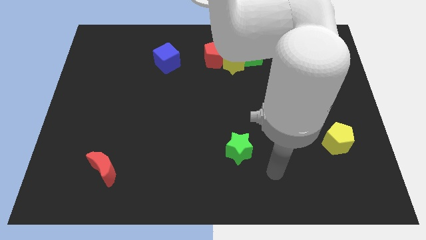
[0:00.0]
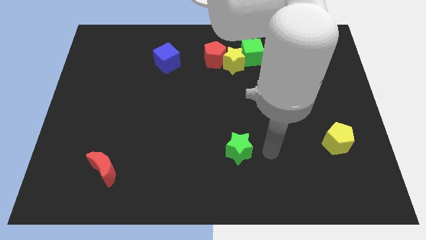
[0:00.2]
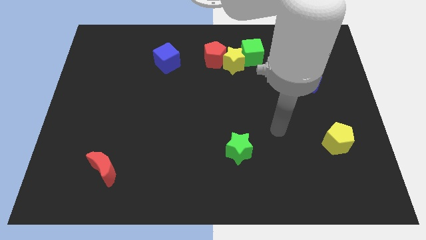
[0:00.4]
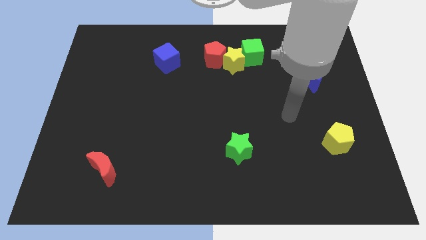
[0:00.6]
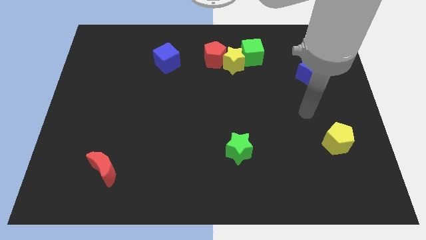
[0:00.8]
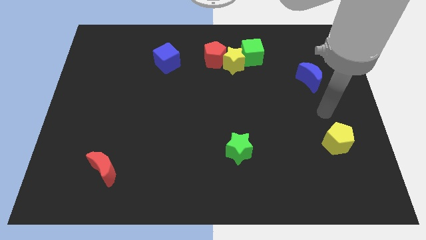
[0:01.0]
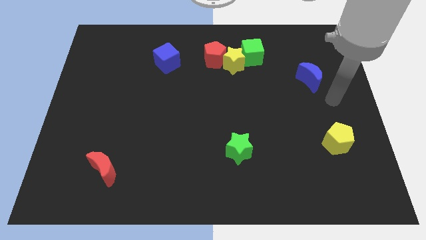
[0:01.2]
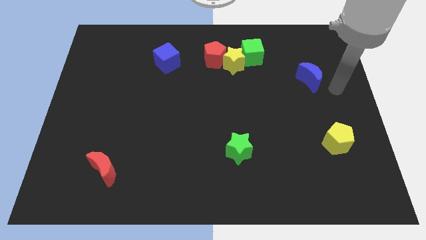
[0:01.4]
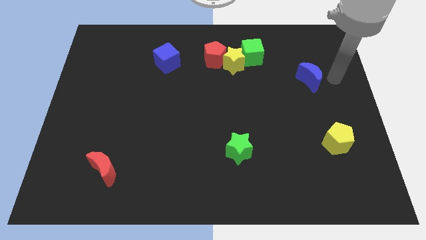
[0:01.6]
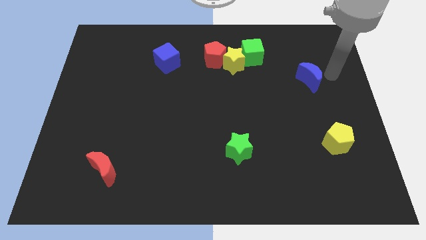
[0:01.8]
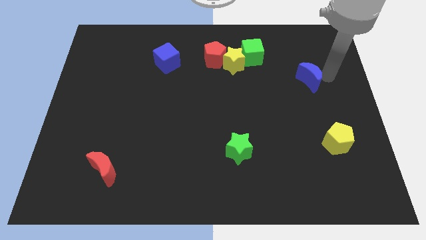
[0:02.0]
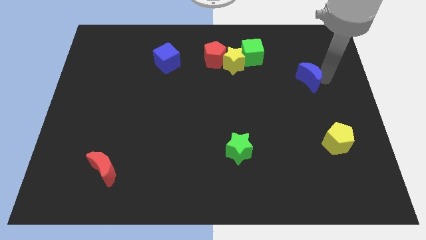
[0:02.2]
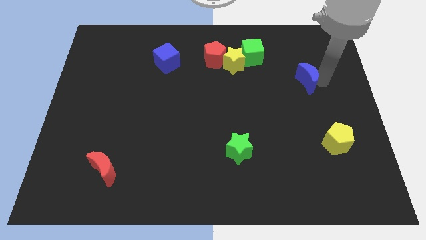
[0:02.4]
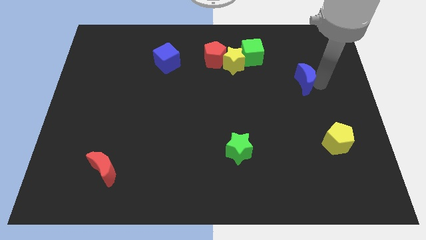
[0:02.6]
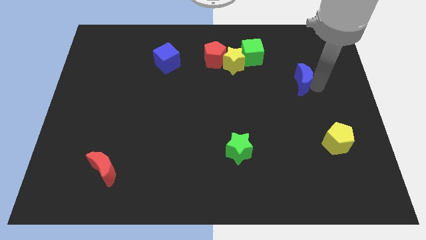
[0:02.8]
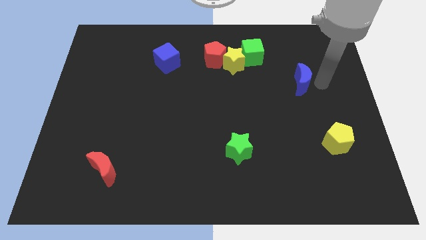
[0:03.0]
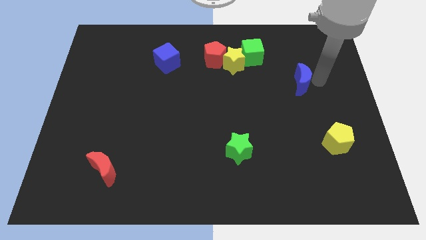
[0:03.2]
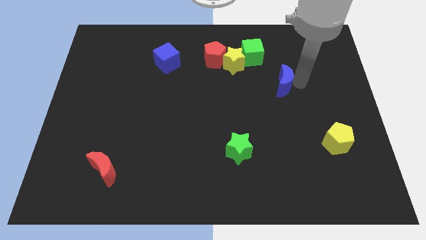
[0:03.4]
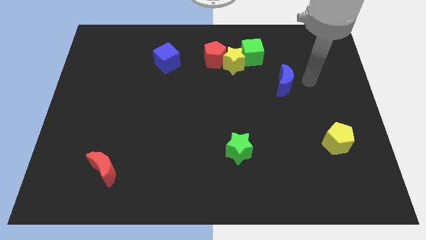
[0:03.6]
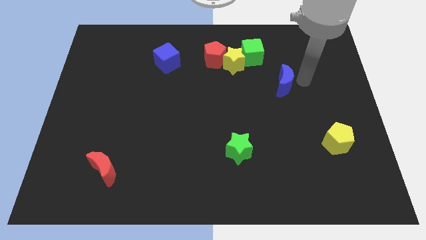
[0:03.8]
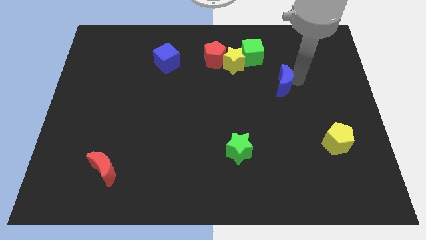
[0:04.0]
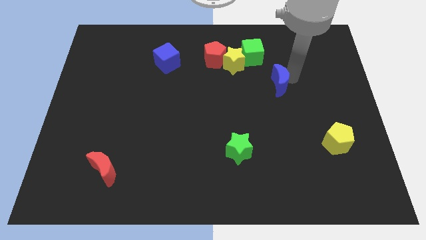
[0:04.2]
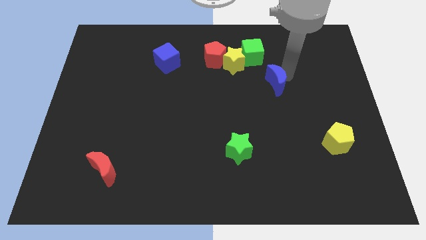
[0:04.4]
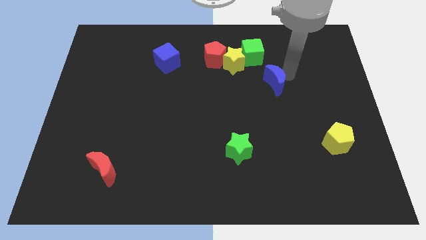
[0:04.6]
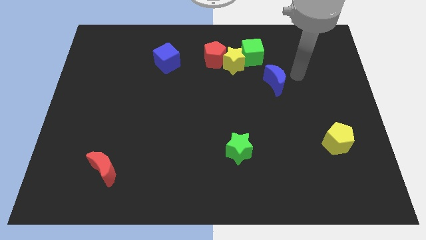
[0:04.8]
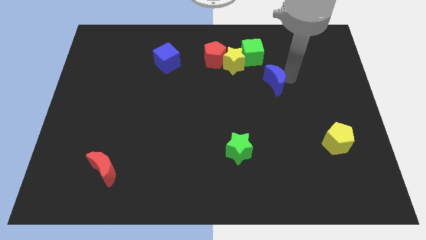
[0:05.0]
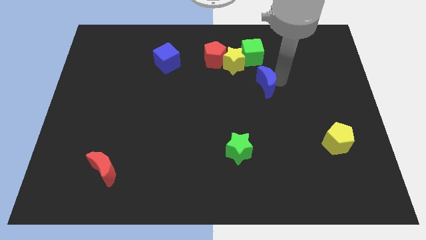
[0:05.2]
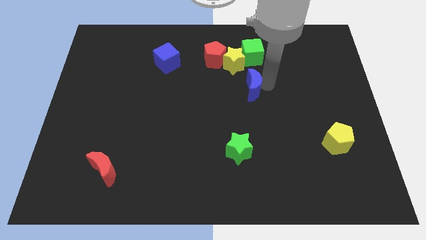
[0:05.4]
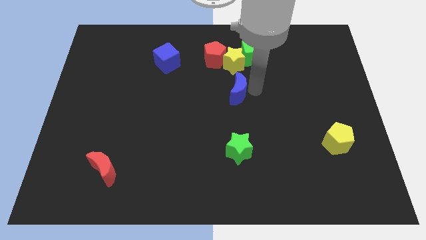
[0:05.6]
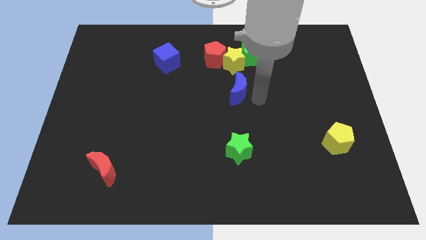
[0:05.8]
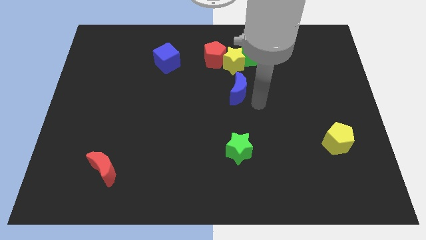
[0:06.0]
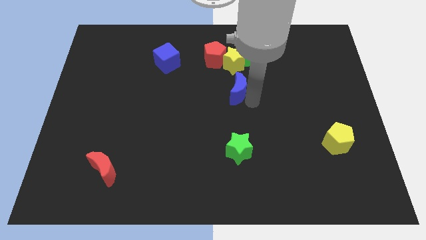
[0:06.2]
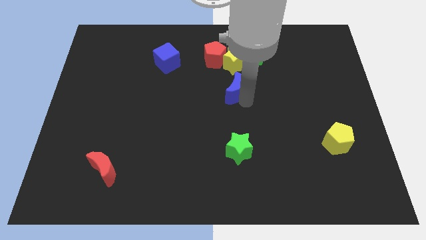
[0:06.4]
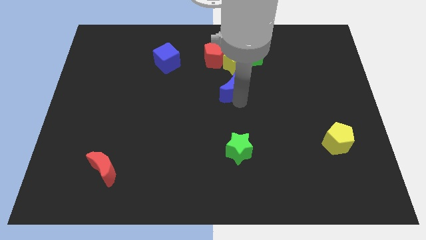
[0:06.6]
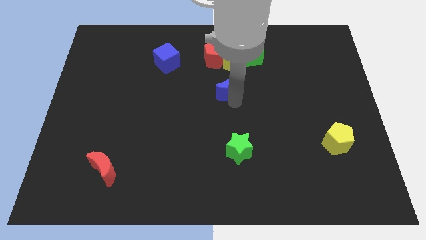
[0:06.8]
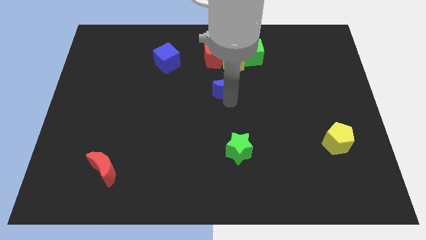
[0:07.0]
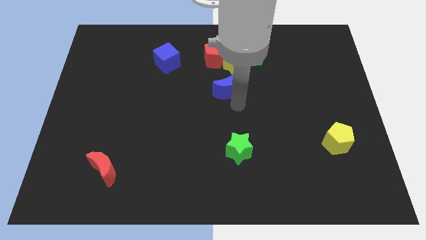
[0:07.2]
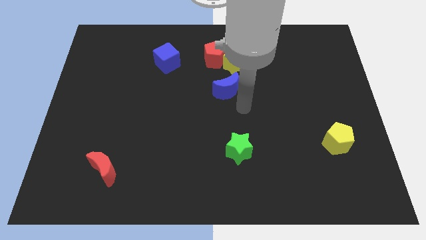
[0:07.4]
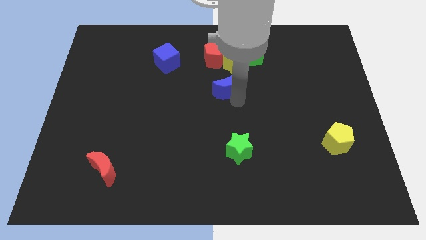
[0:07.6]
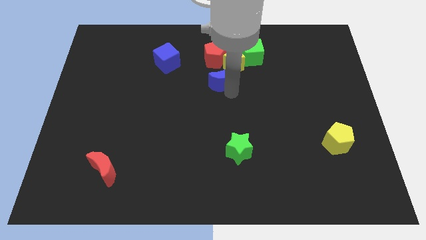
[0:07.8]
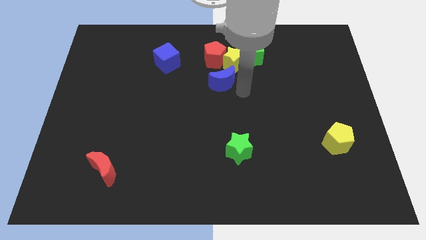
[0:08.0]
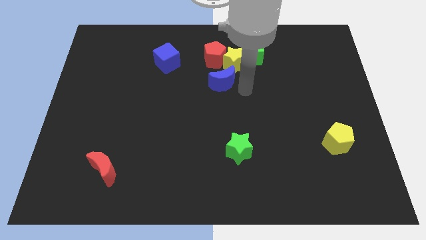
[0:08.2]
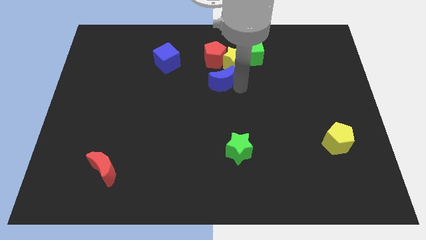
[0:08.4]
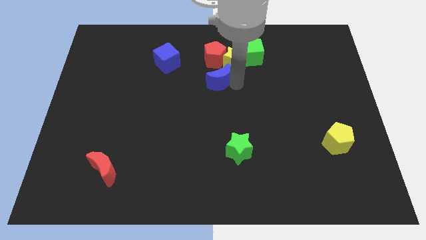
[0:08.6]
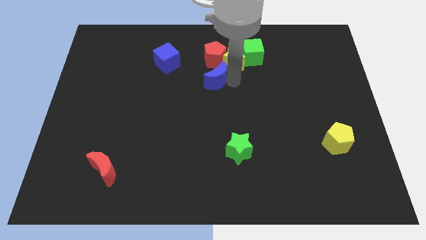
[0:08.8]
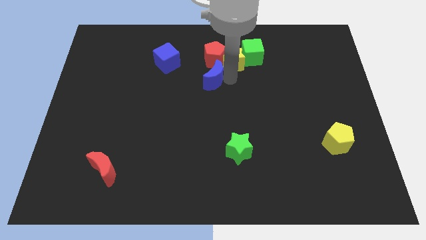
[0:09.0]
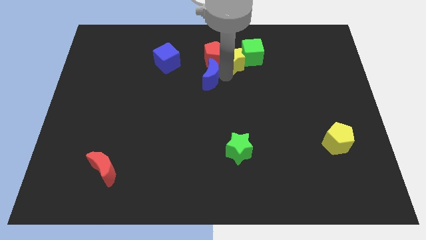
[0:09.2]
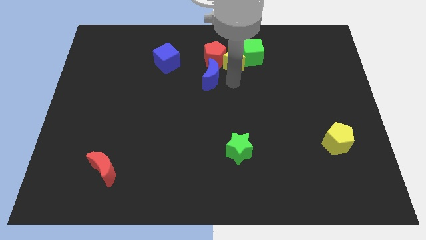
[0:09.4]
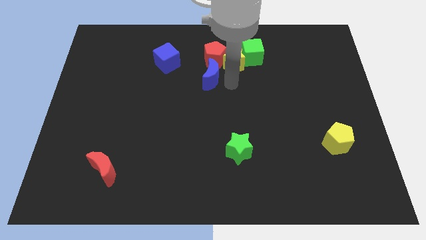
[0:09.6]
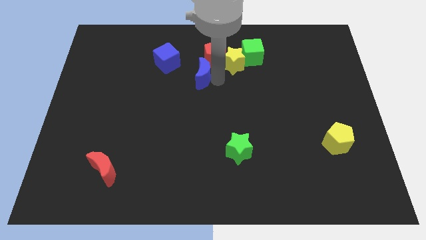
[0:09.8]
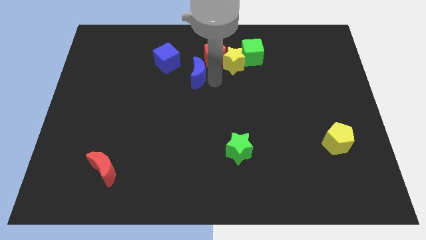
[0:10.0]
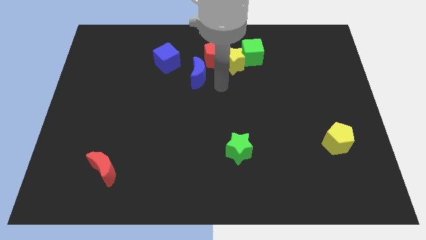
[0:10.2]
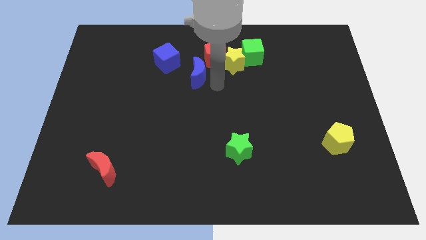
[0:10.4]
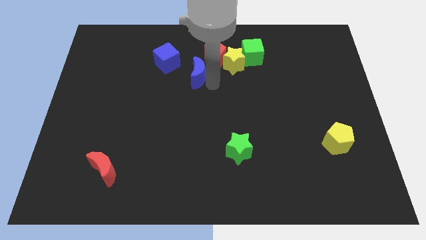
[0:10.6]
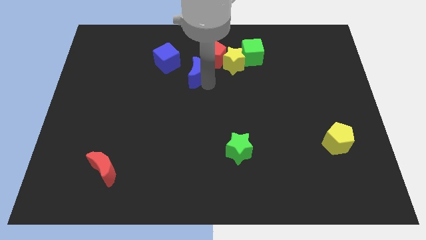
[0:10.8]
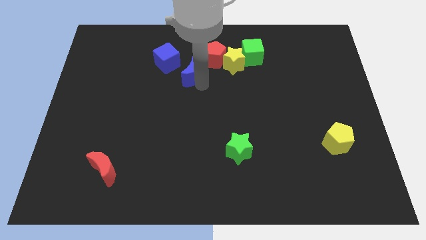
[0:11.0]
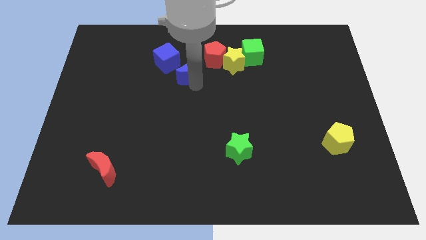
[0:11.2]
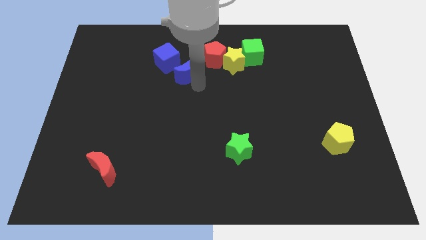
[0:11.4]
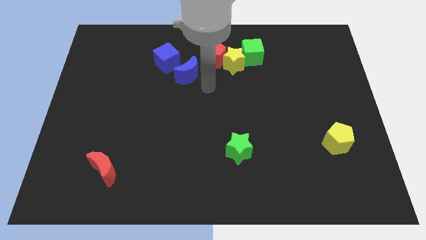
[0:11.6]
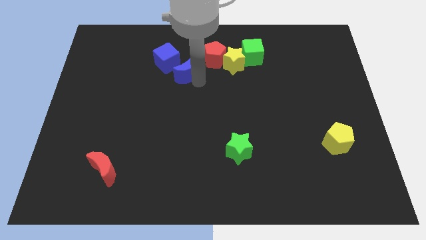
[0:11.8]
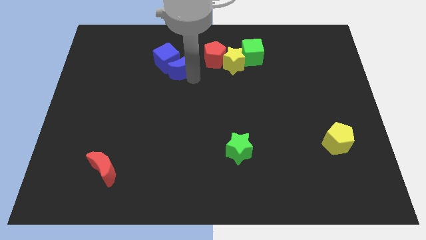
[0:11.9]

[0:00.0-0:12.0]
put the blue moon close to the blue cube

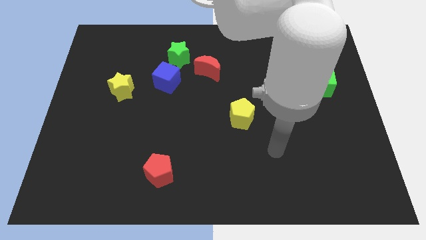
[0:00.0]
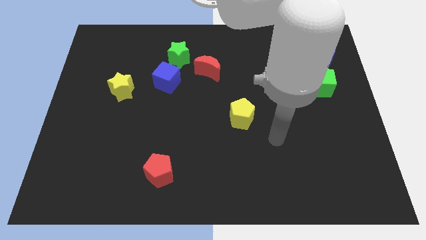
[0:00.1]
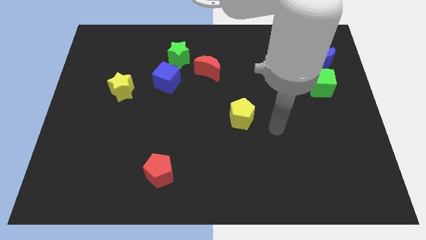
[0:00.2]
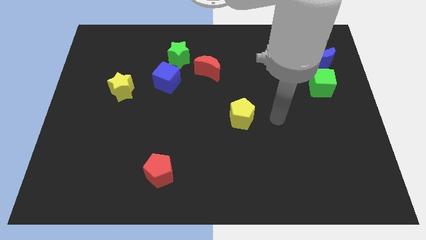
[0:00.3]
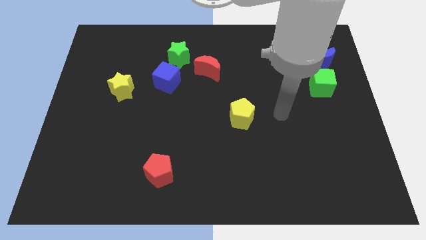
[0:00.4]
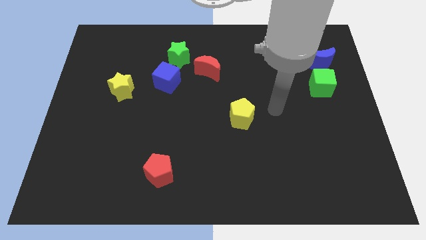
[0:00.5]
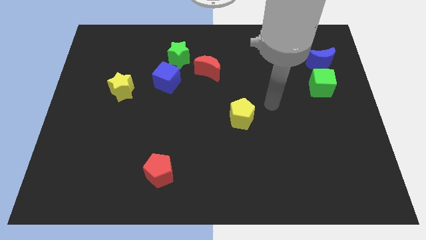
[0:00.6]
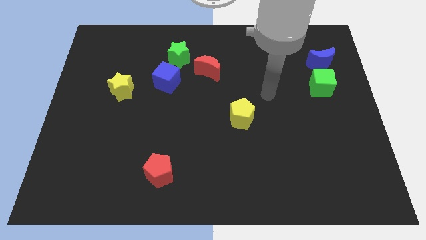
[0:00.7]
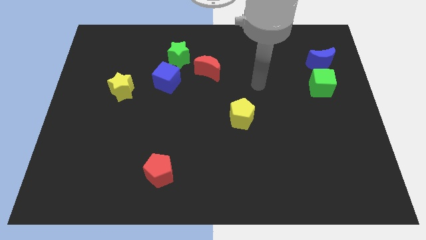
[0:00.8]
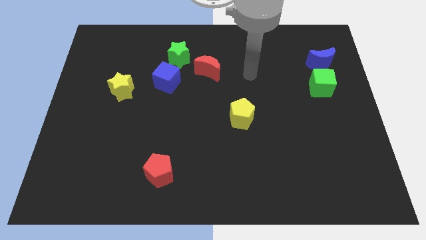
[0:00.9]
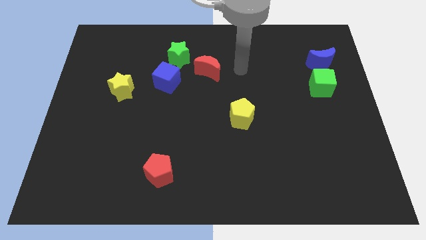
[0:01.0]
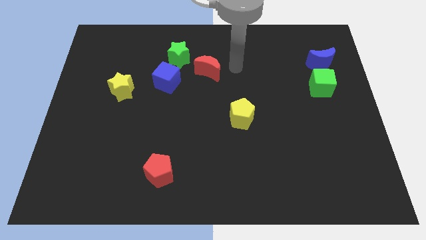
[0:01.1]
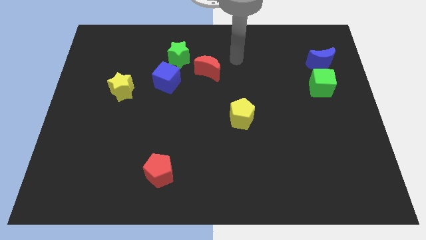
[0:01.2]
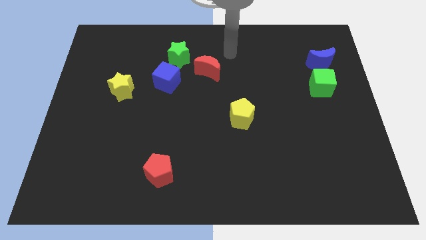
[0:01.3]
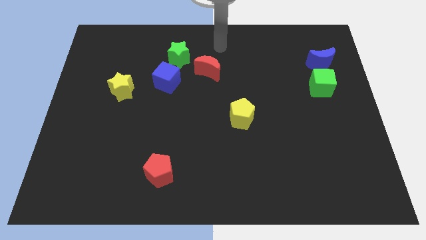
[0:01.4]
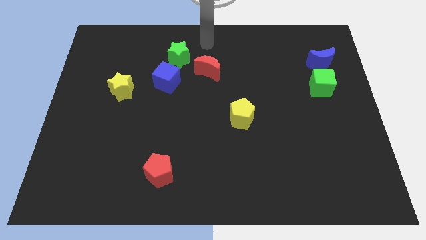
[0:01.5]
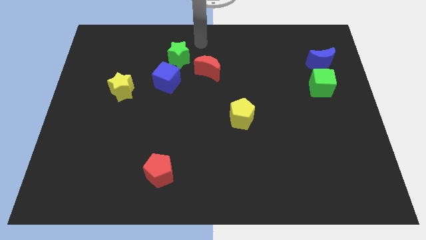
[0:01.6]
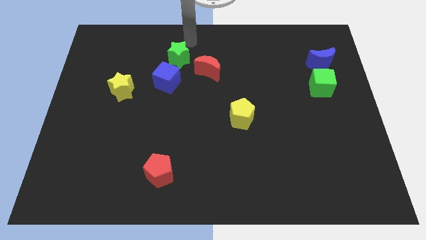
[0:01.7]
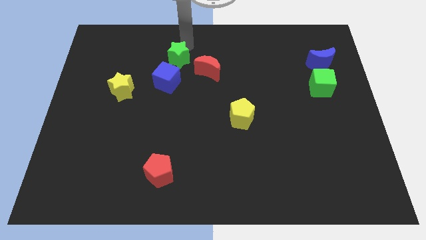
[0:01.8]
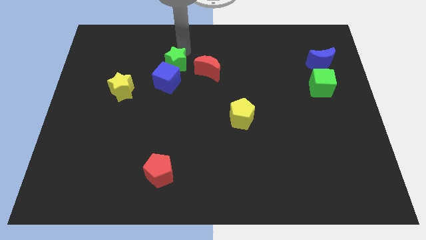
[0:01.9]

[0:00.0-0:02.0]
put the green star to the blue cube

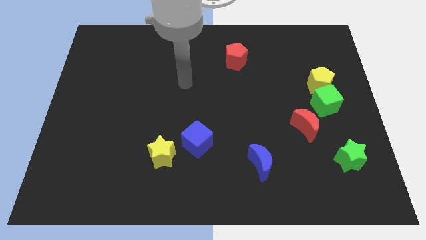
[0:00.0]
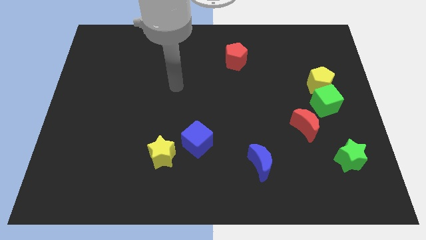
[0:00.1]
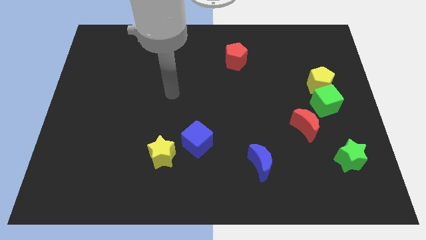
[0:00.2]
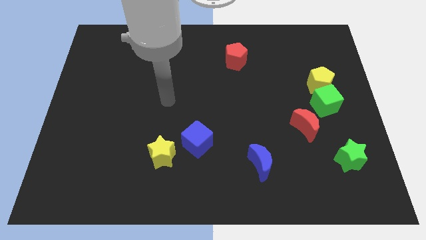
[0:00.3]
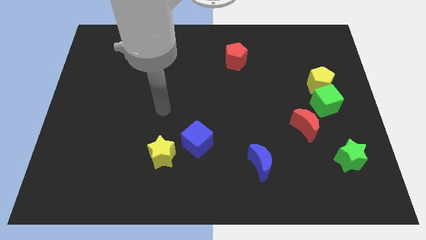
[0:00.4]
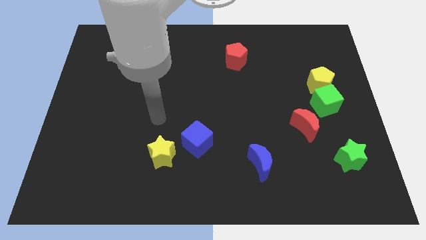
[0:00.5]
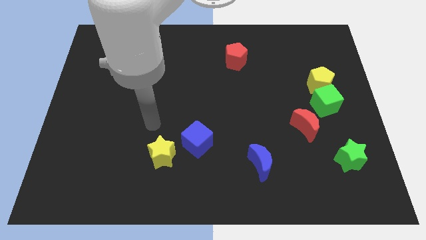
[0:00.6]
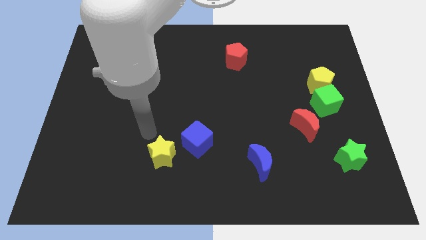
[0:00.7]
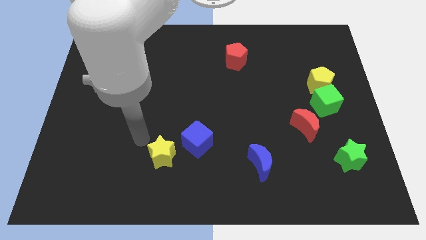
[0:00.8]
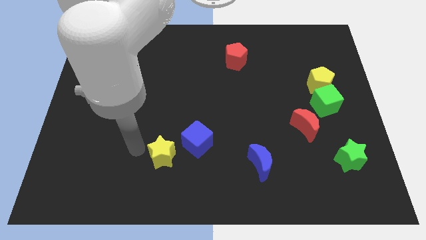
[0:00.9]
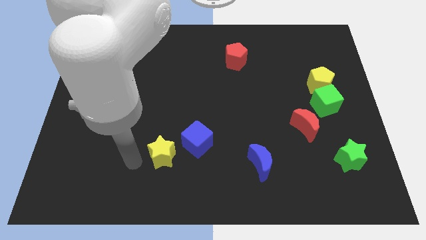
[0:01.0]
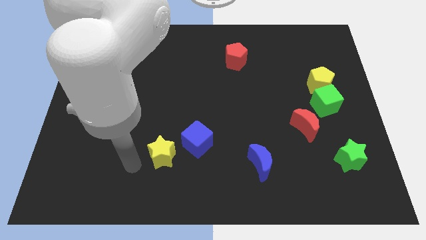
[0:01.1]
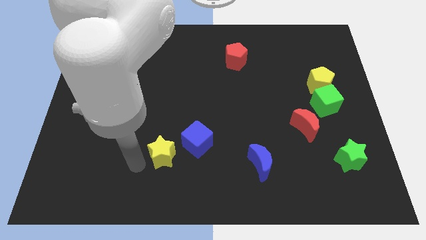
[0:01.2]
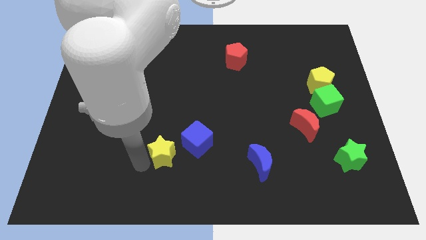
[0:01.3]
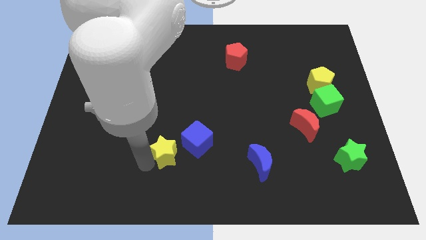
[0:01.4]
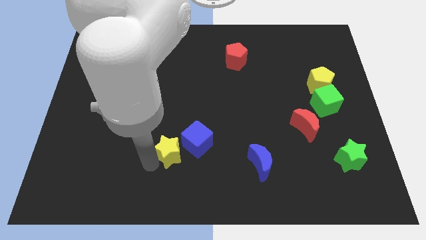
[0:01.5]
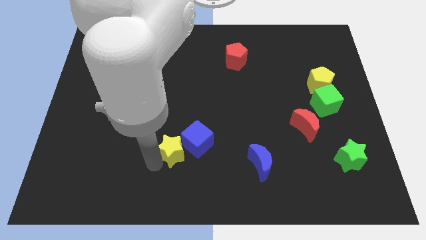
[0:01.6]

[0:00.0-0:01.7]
push the yellow star next to the blue cube
